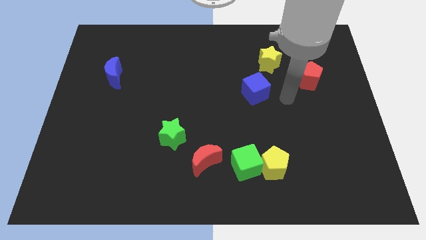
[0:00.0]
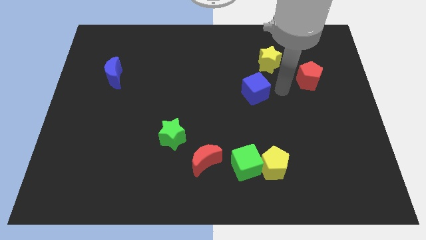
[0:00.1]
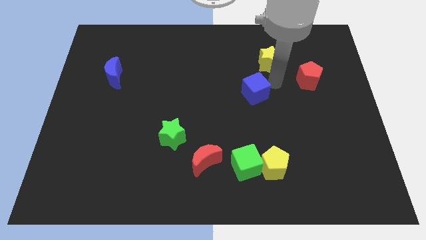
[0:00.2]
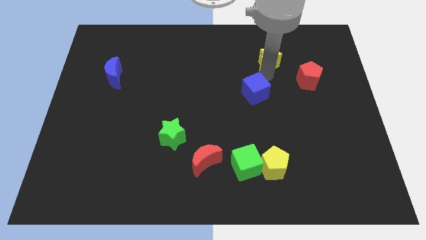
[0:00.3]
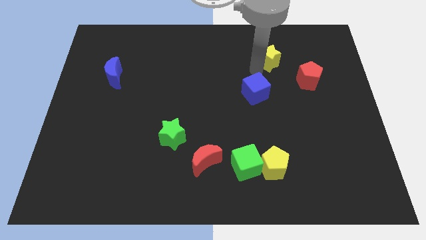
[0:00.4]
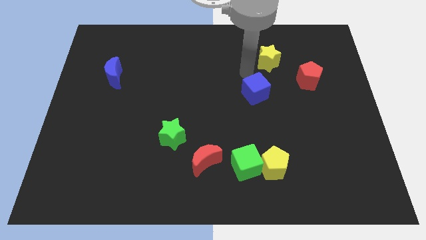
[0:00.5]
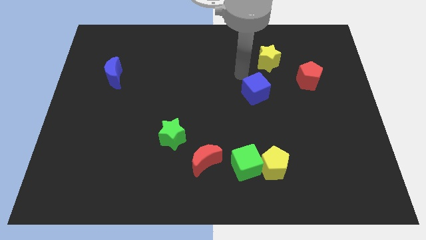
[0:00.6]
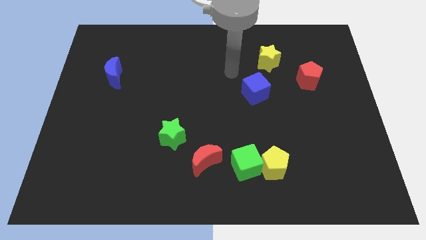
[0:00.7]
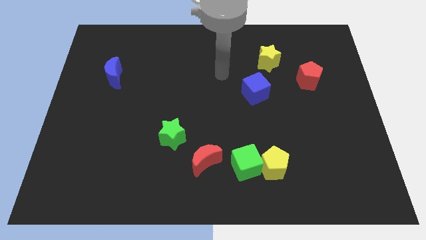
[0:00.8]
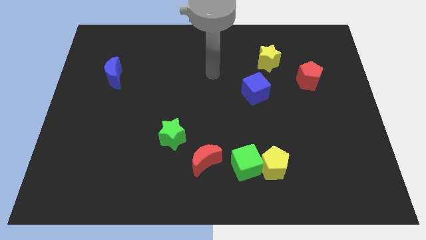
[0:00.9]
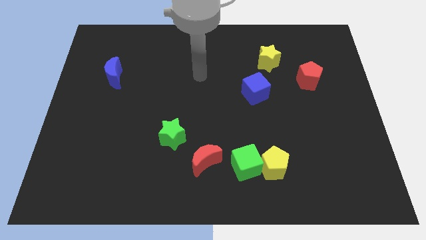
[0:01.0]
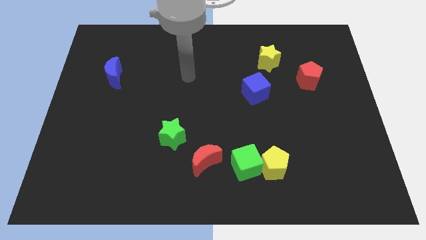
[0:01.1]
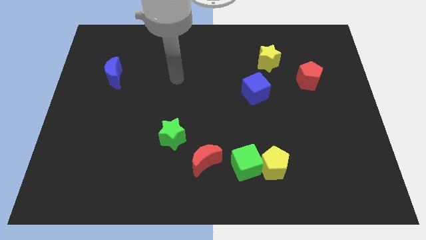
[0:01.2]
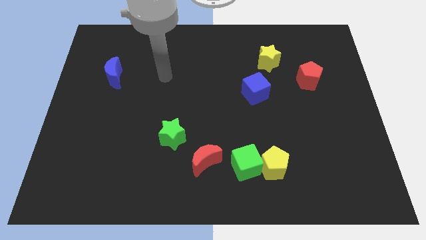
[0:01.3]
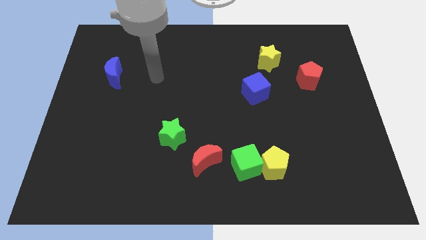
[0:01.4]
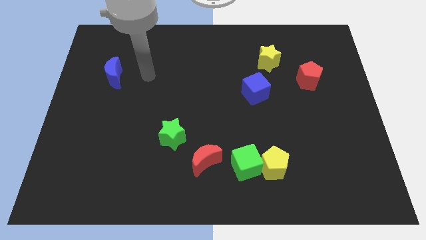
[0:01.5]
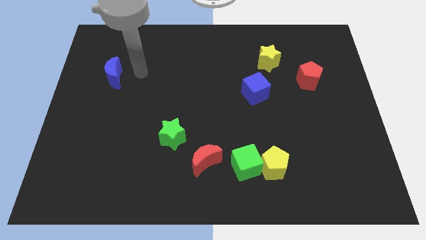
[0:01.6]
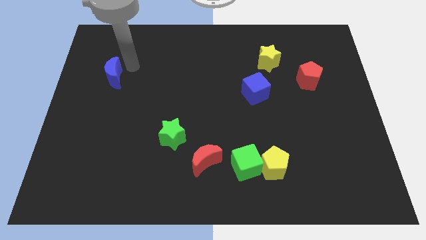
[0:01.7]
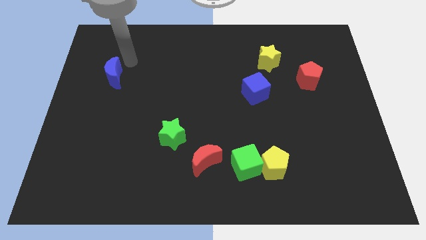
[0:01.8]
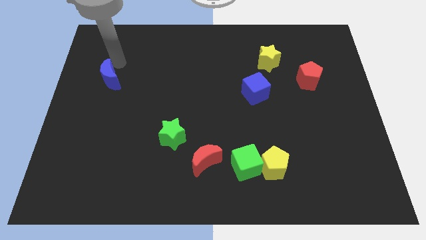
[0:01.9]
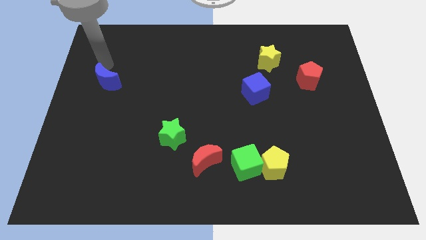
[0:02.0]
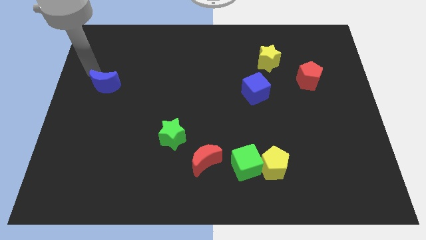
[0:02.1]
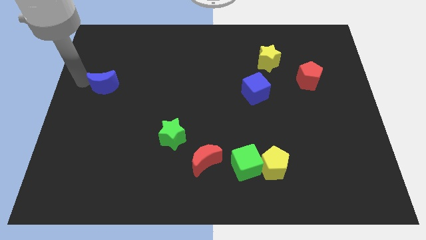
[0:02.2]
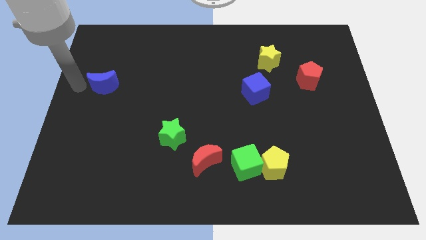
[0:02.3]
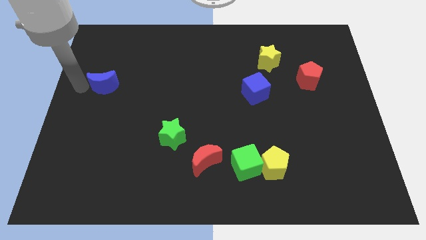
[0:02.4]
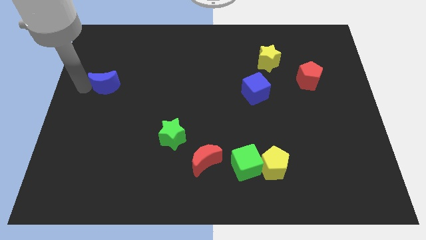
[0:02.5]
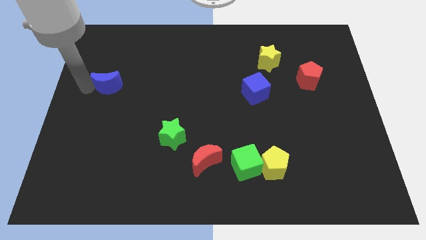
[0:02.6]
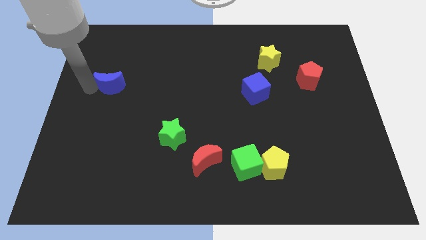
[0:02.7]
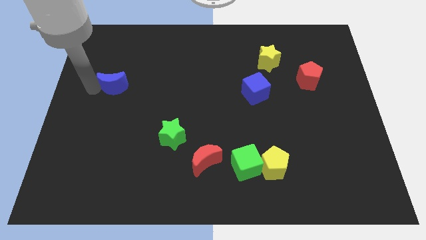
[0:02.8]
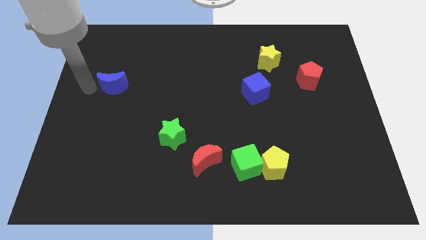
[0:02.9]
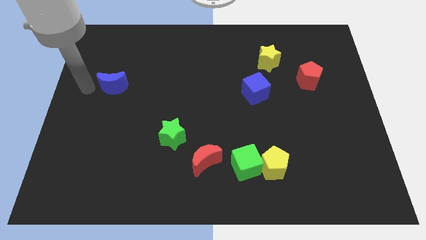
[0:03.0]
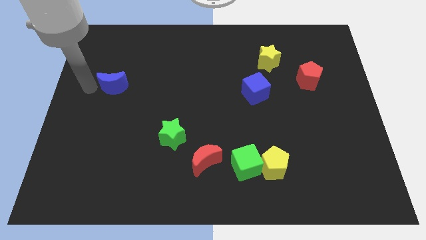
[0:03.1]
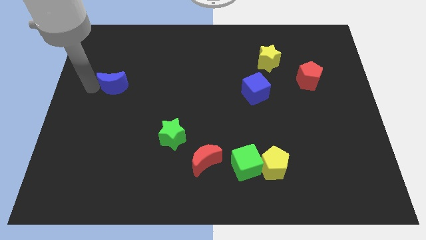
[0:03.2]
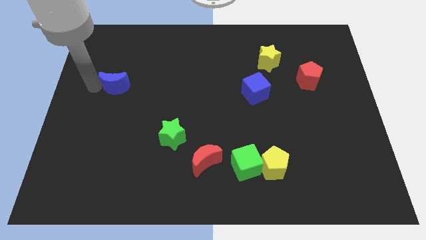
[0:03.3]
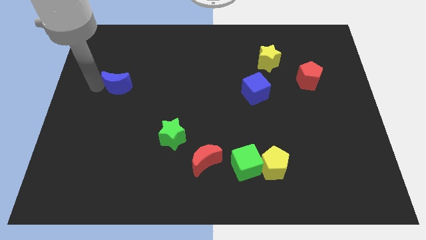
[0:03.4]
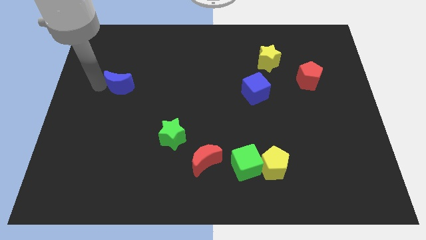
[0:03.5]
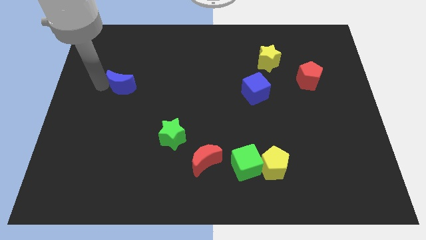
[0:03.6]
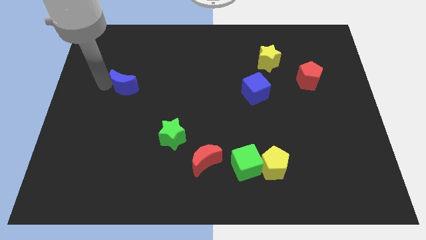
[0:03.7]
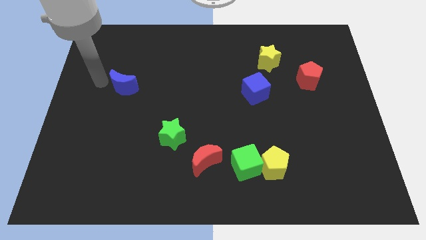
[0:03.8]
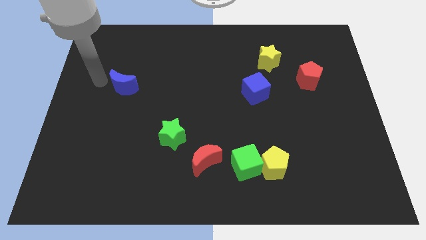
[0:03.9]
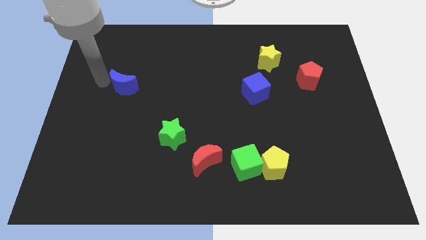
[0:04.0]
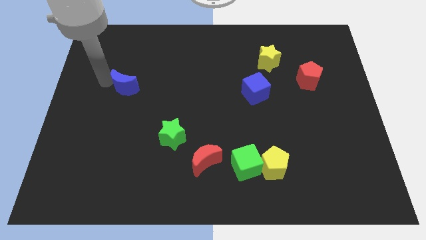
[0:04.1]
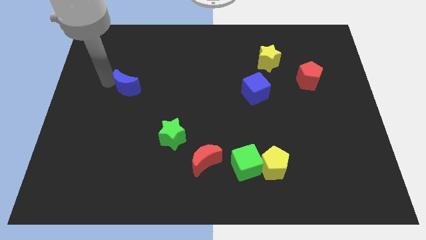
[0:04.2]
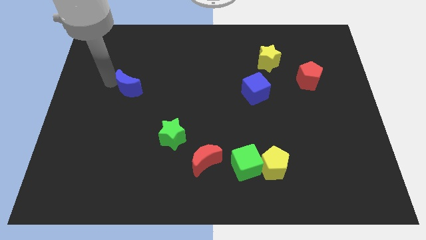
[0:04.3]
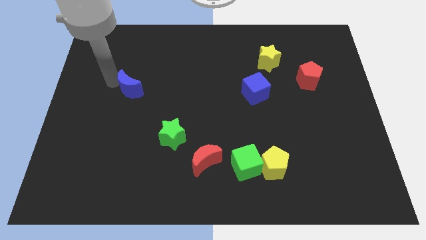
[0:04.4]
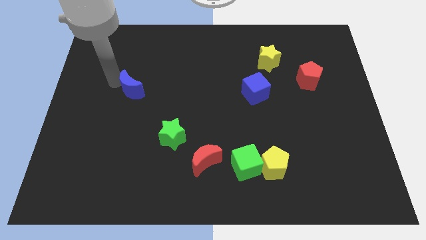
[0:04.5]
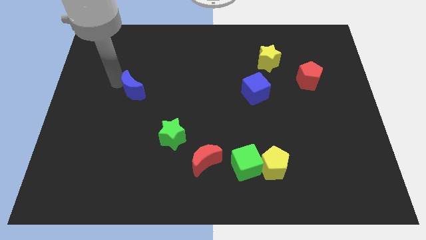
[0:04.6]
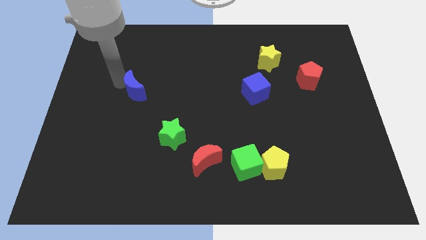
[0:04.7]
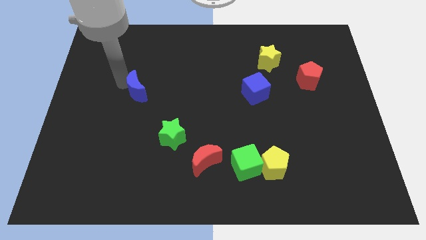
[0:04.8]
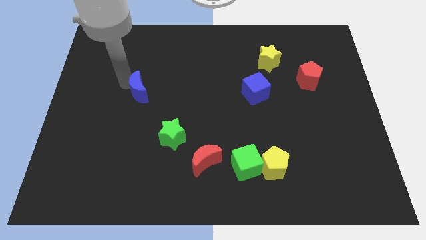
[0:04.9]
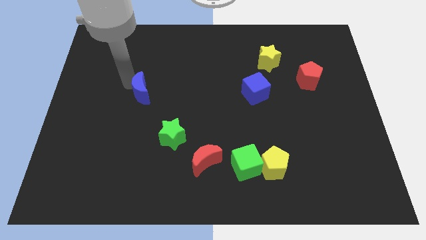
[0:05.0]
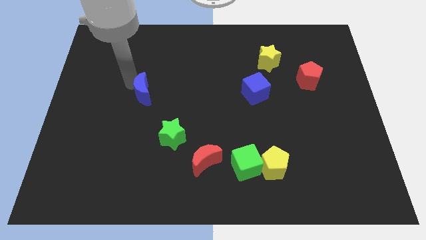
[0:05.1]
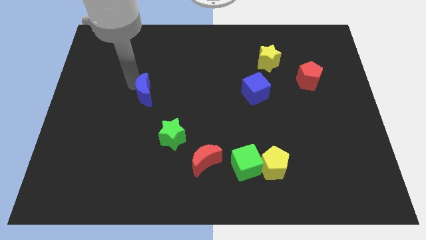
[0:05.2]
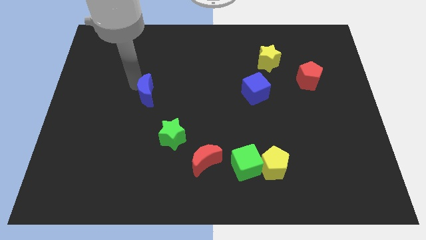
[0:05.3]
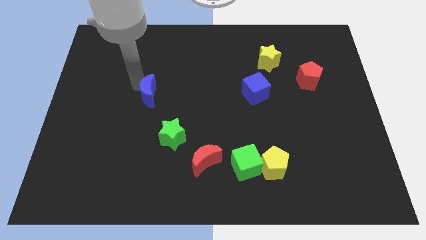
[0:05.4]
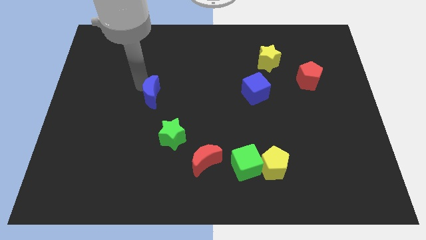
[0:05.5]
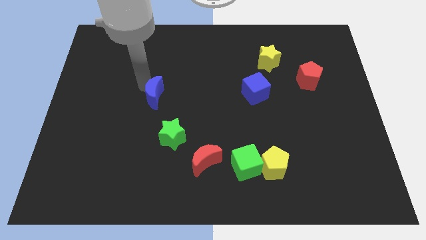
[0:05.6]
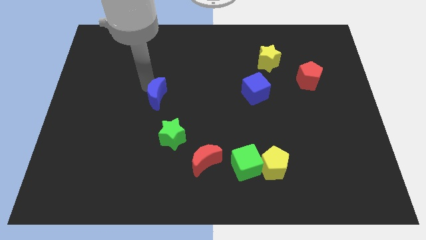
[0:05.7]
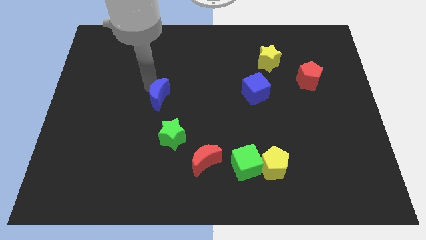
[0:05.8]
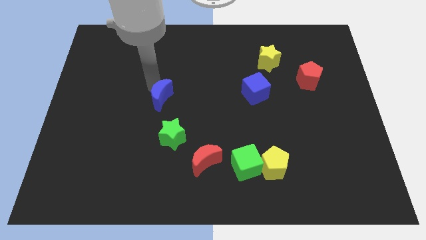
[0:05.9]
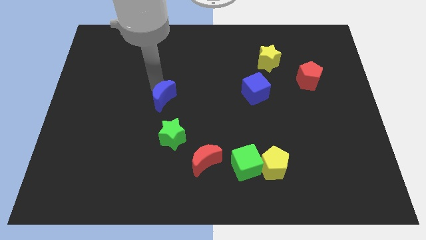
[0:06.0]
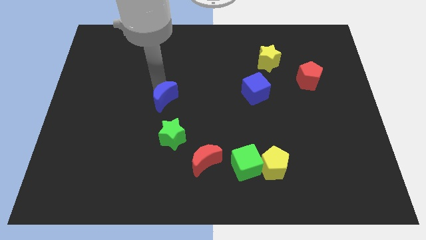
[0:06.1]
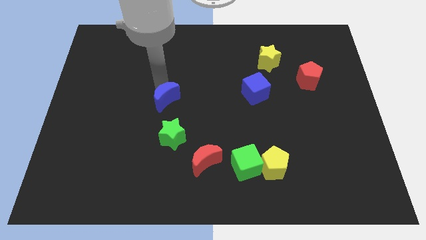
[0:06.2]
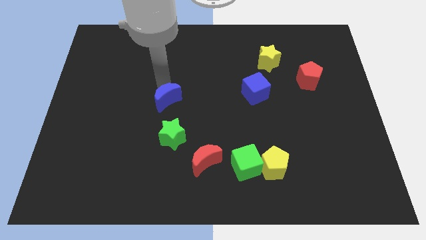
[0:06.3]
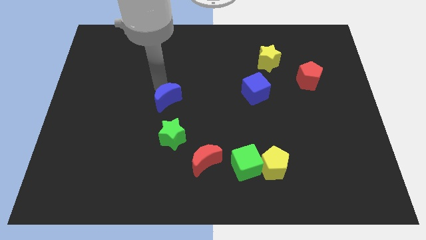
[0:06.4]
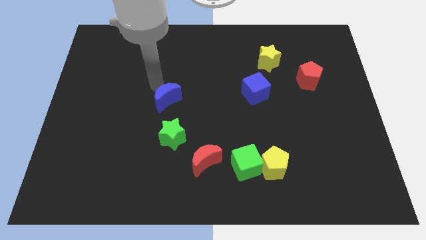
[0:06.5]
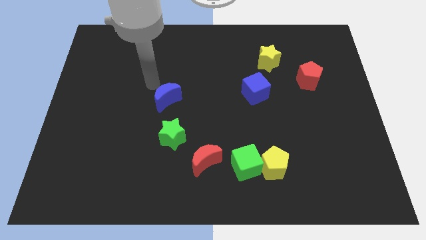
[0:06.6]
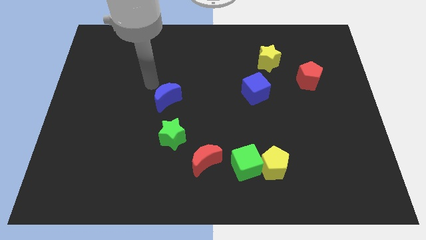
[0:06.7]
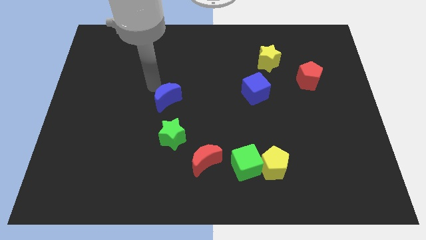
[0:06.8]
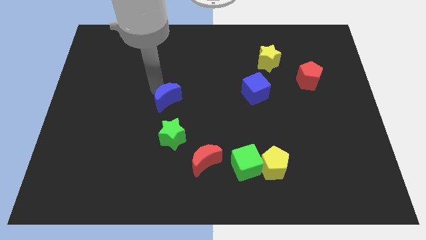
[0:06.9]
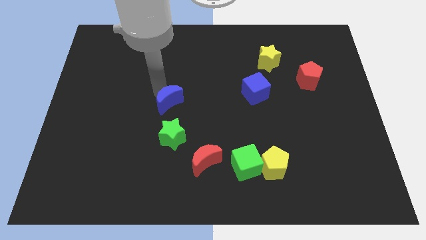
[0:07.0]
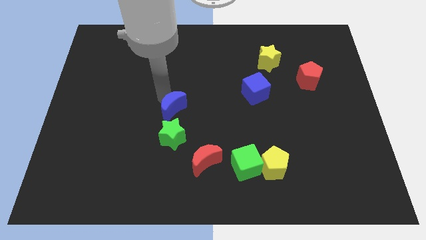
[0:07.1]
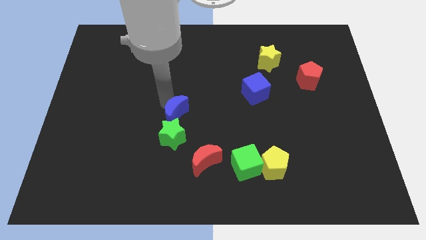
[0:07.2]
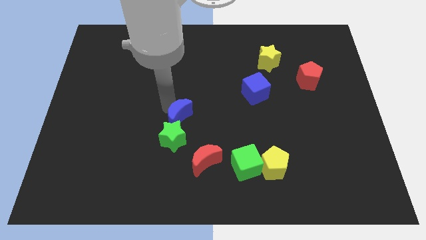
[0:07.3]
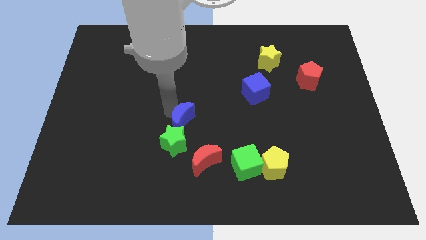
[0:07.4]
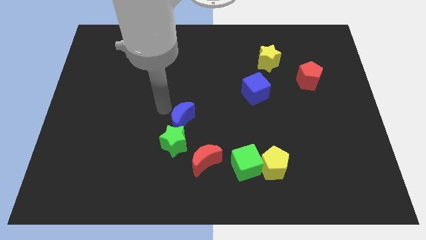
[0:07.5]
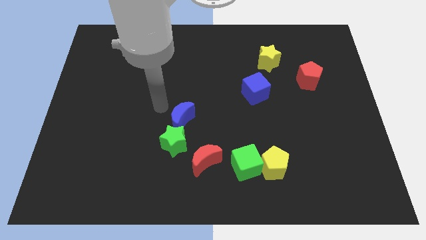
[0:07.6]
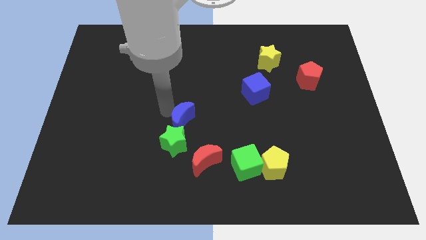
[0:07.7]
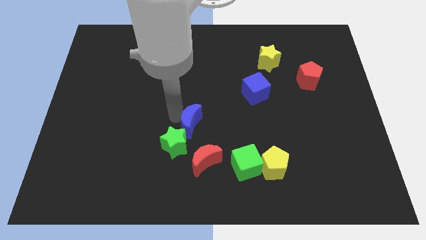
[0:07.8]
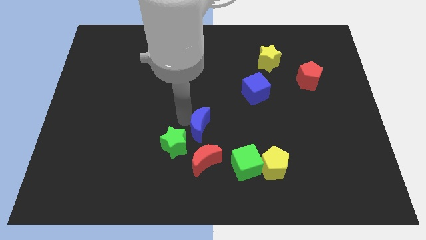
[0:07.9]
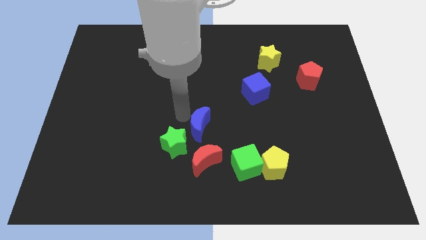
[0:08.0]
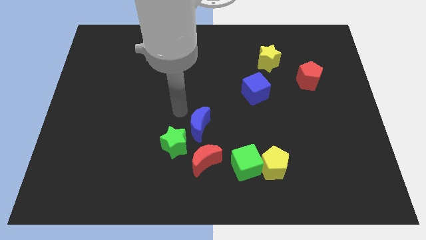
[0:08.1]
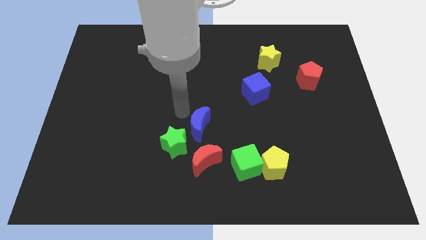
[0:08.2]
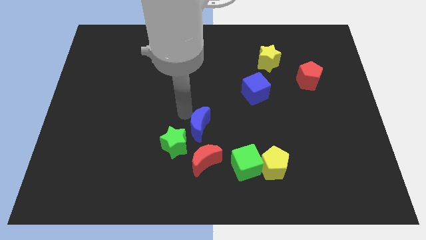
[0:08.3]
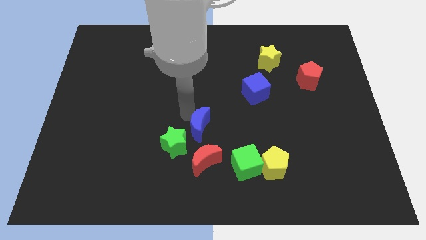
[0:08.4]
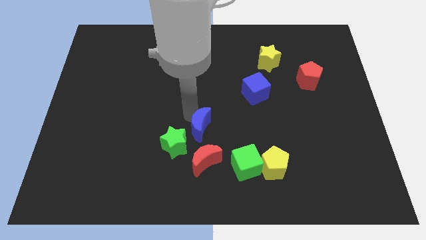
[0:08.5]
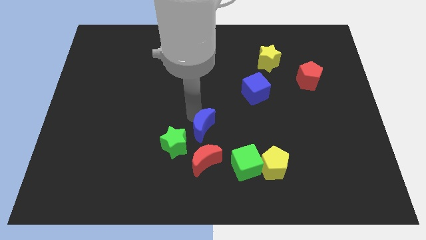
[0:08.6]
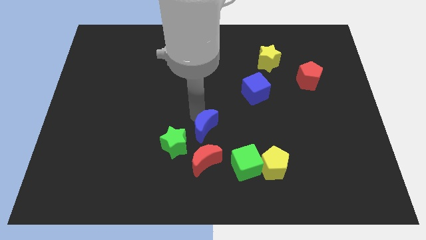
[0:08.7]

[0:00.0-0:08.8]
slide the blue moon diagonally up and to the left of the green cube
